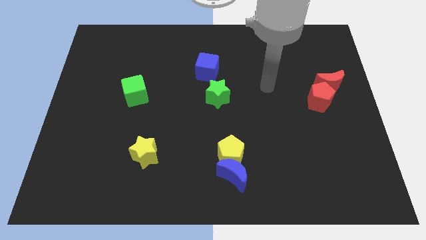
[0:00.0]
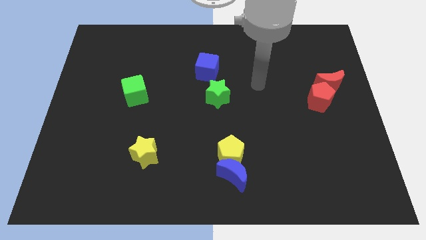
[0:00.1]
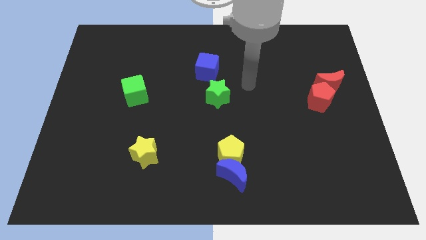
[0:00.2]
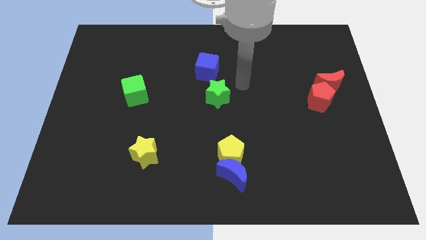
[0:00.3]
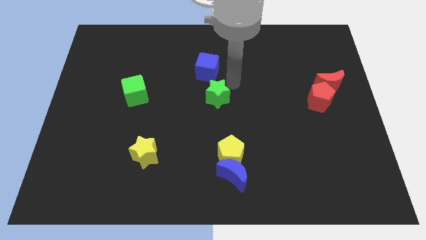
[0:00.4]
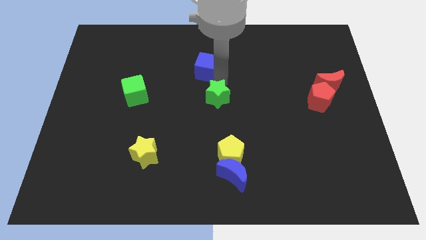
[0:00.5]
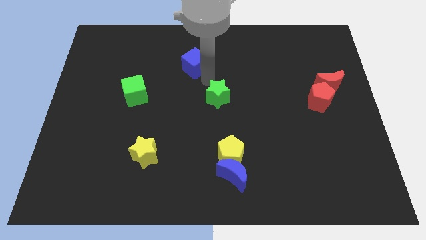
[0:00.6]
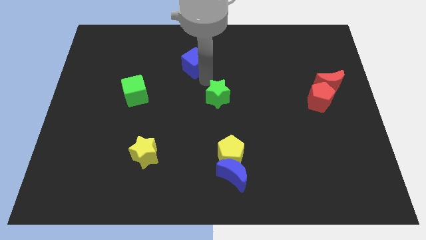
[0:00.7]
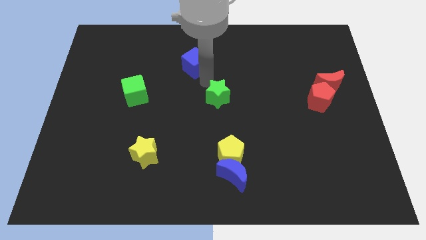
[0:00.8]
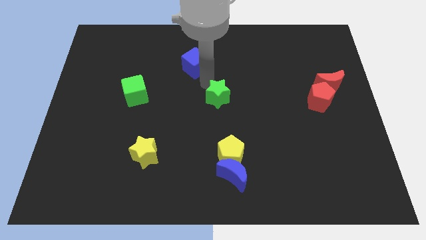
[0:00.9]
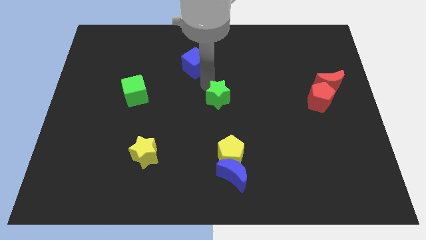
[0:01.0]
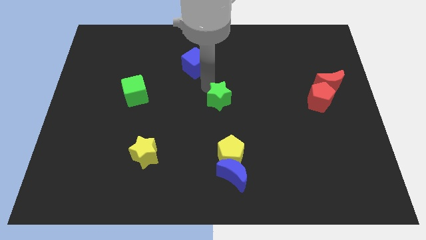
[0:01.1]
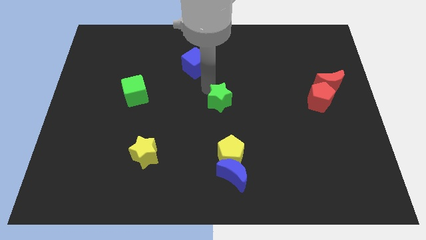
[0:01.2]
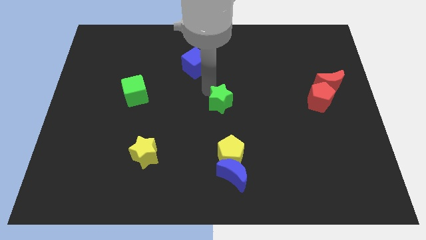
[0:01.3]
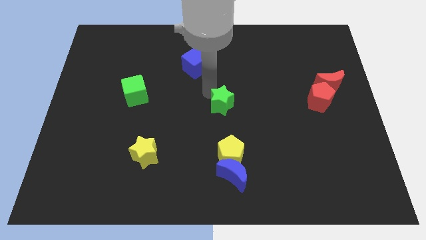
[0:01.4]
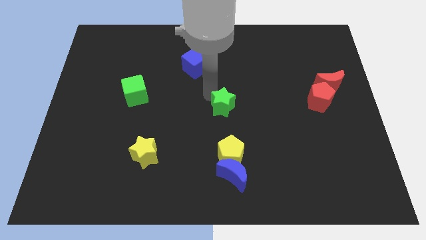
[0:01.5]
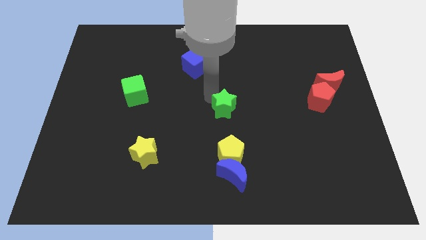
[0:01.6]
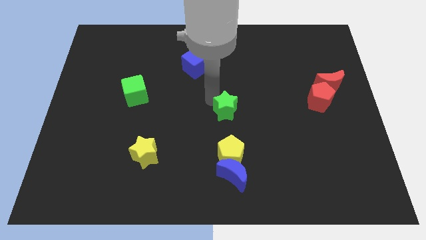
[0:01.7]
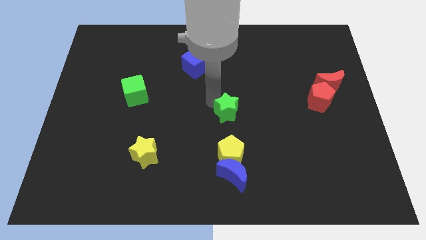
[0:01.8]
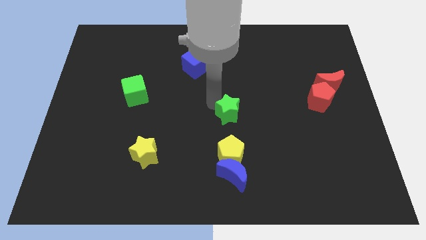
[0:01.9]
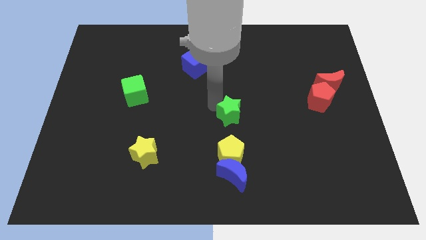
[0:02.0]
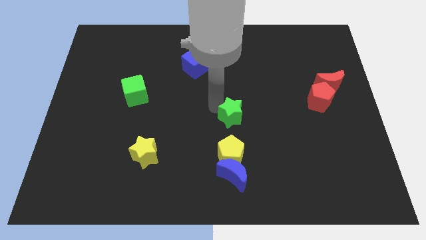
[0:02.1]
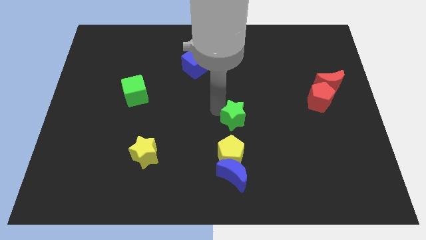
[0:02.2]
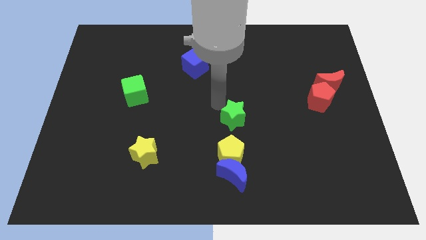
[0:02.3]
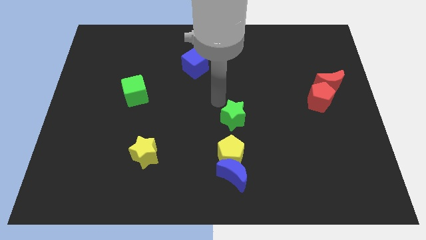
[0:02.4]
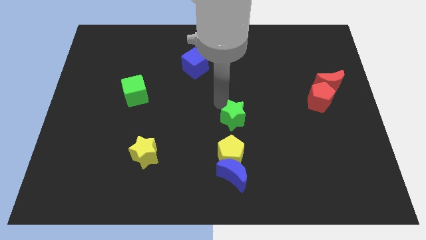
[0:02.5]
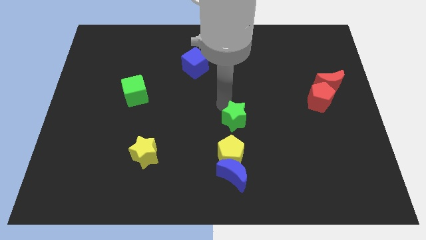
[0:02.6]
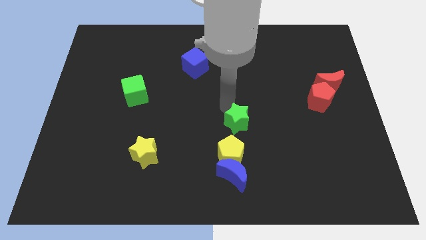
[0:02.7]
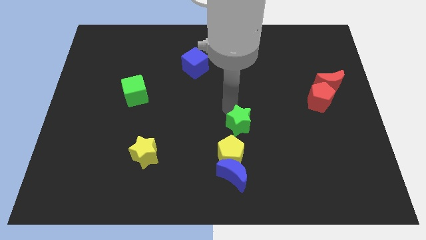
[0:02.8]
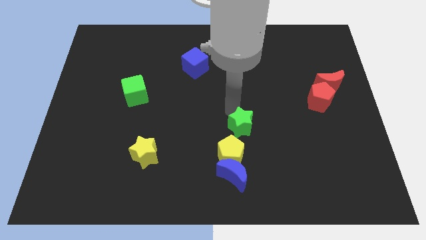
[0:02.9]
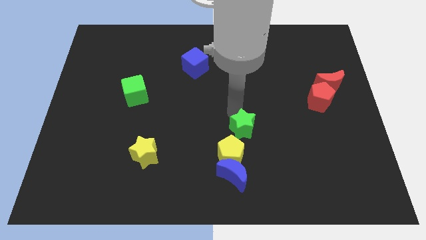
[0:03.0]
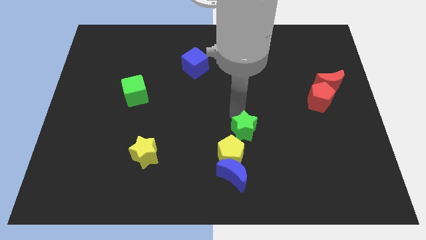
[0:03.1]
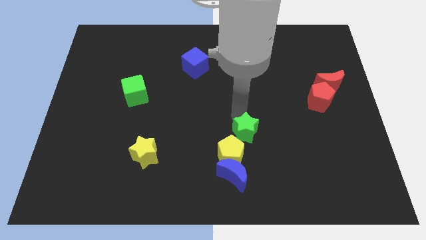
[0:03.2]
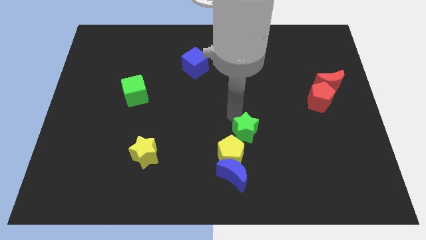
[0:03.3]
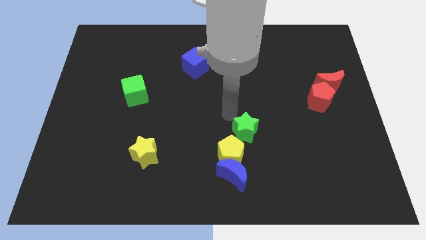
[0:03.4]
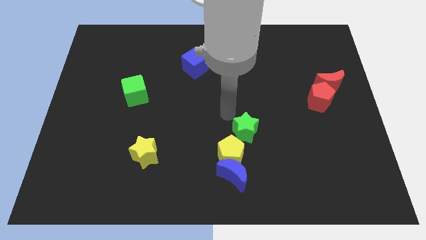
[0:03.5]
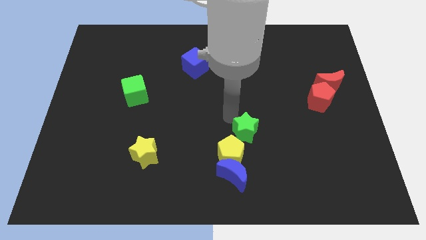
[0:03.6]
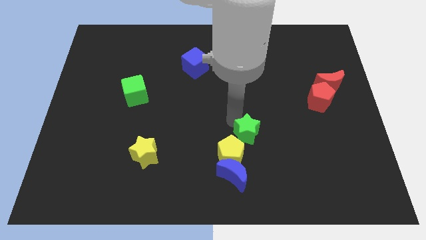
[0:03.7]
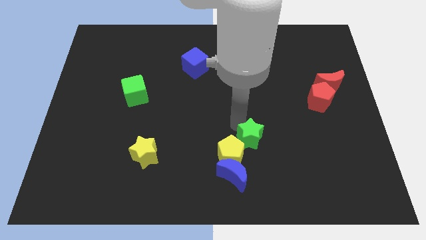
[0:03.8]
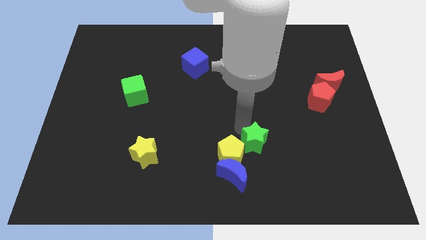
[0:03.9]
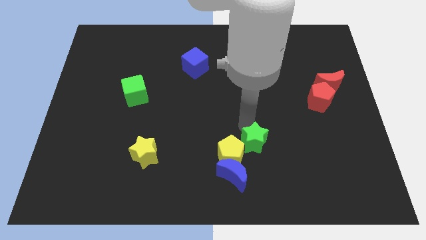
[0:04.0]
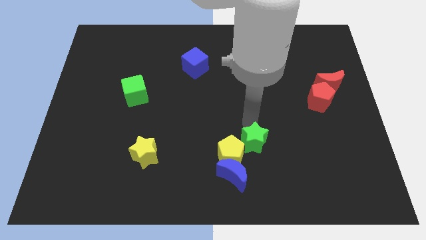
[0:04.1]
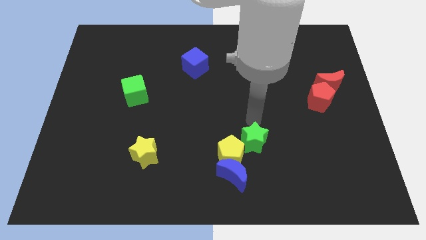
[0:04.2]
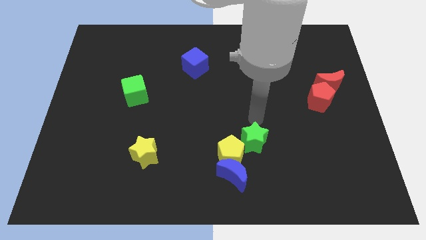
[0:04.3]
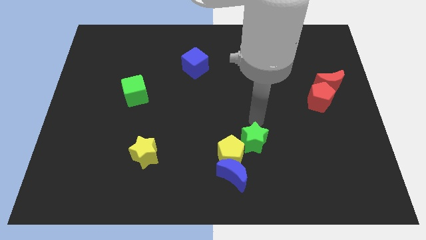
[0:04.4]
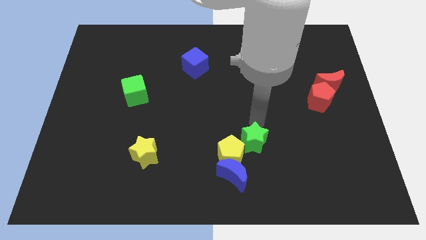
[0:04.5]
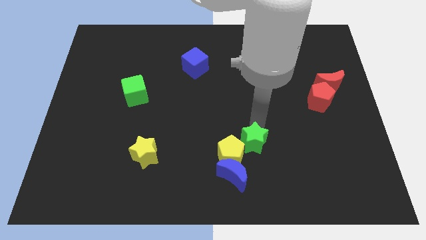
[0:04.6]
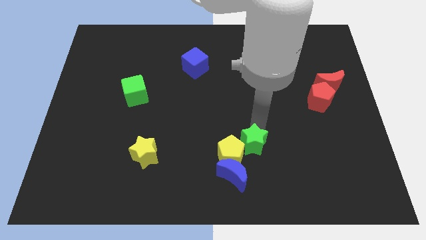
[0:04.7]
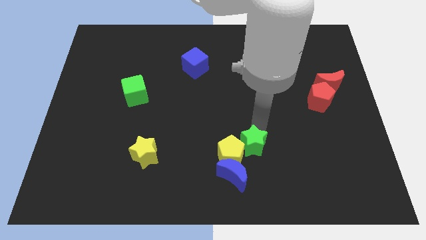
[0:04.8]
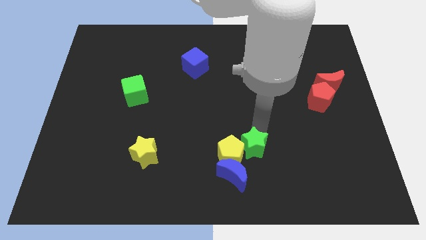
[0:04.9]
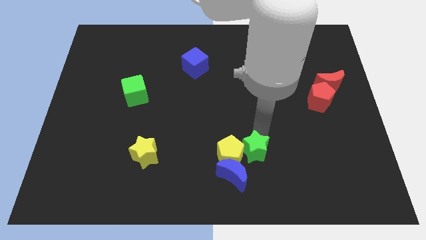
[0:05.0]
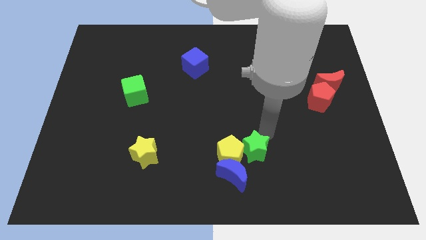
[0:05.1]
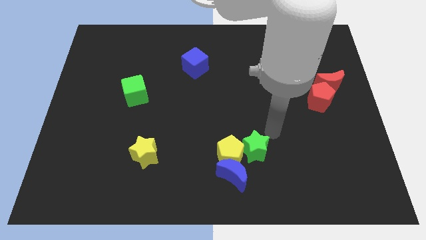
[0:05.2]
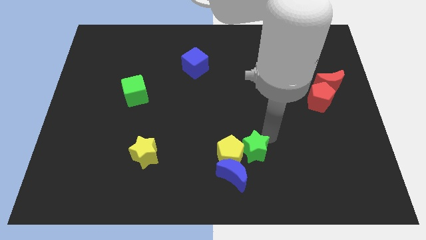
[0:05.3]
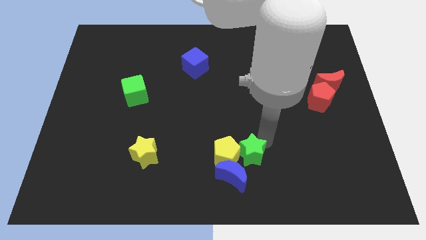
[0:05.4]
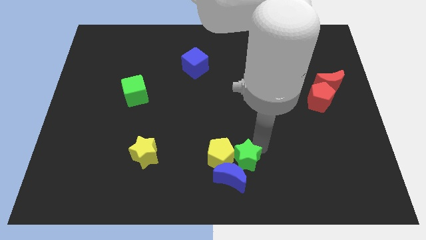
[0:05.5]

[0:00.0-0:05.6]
push the green star close to the blue moon
